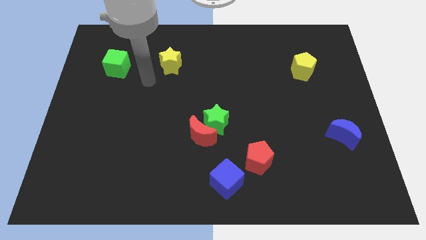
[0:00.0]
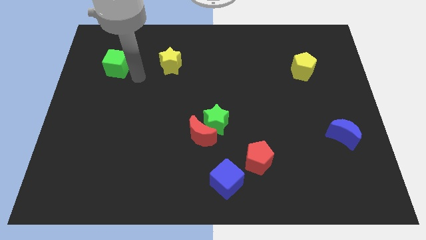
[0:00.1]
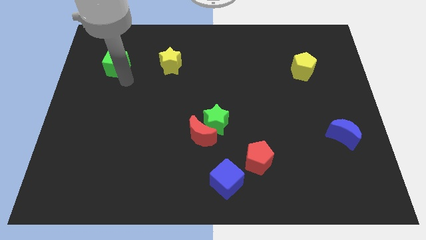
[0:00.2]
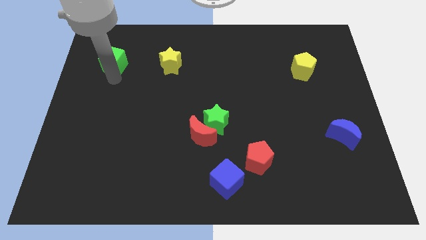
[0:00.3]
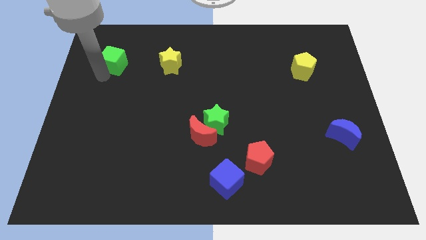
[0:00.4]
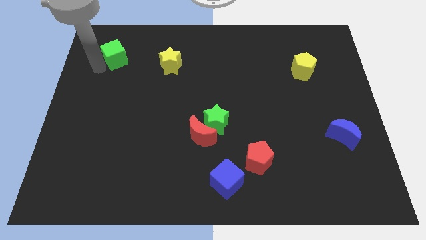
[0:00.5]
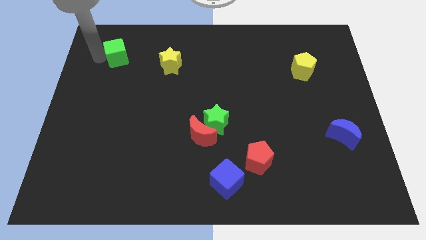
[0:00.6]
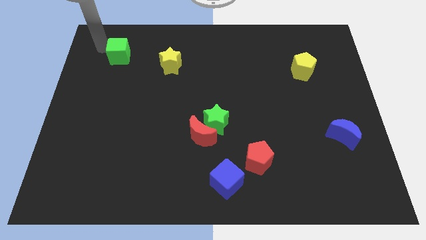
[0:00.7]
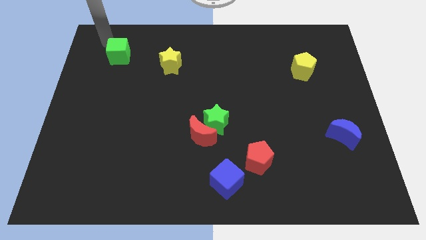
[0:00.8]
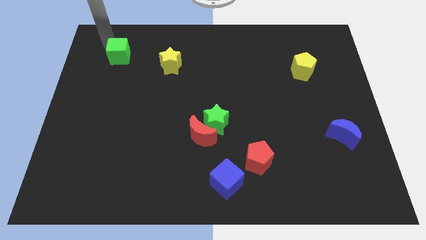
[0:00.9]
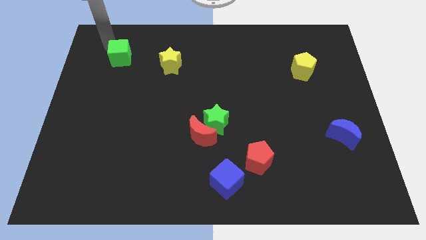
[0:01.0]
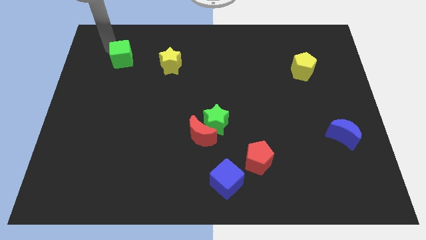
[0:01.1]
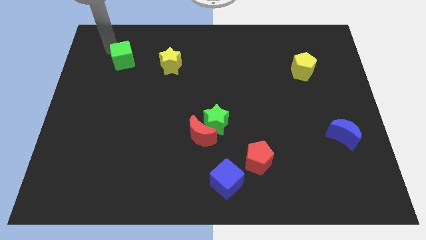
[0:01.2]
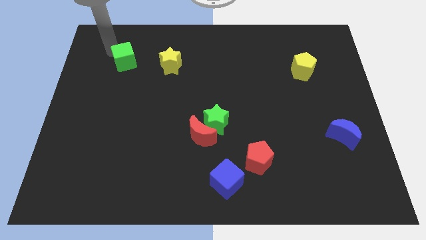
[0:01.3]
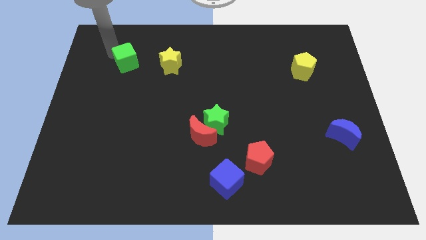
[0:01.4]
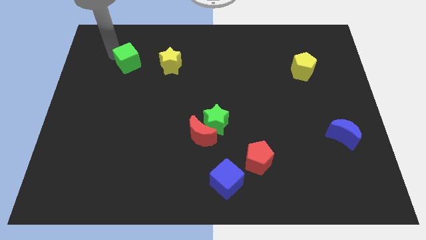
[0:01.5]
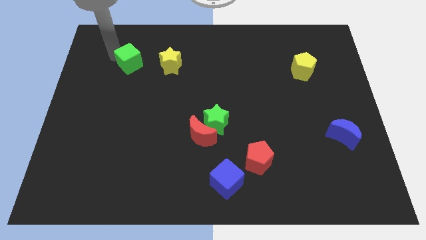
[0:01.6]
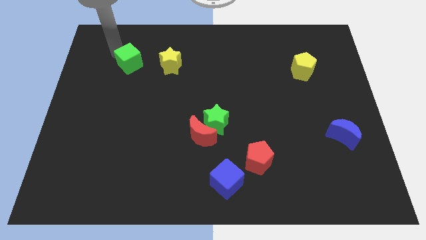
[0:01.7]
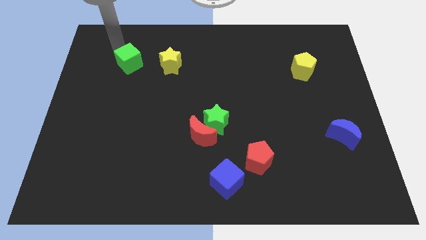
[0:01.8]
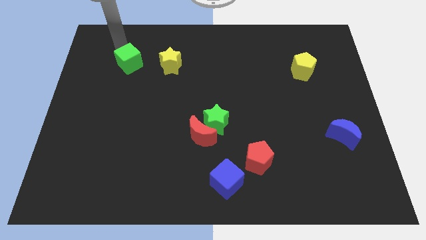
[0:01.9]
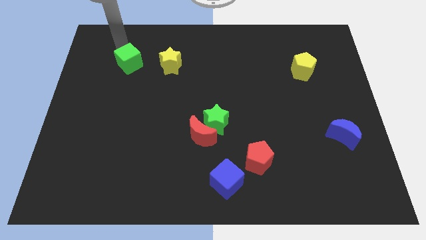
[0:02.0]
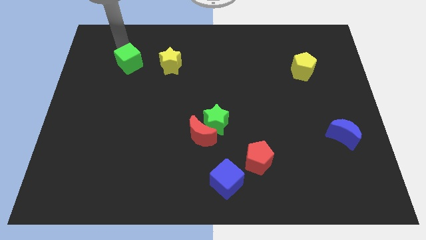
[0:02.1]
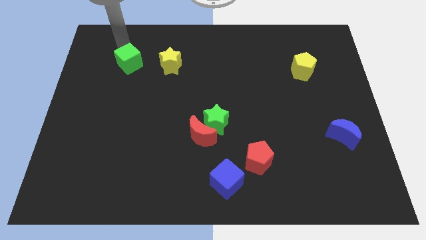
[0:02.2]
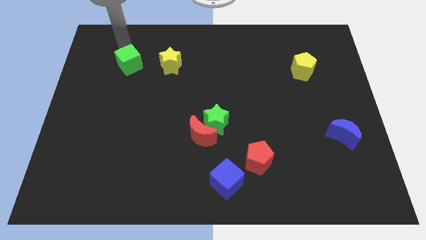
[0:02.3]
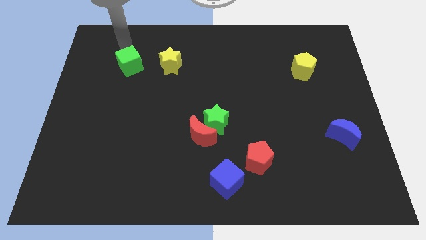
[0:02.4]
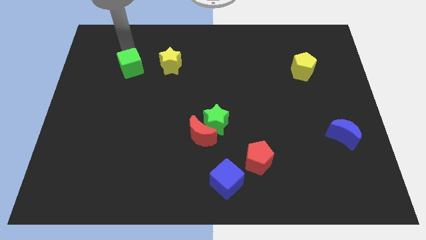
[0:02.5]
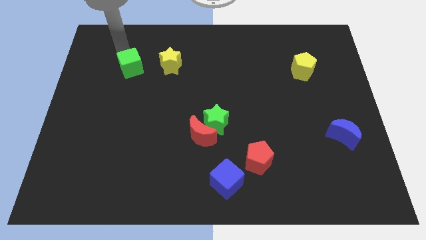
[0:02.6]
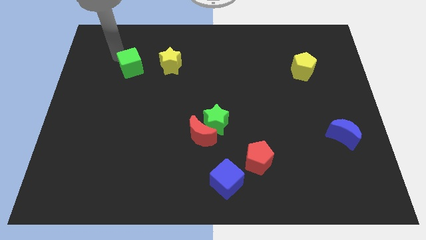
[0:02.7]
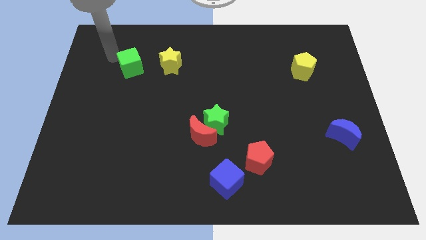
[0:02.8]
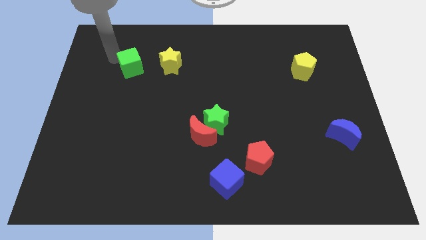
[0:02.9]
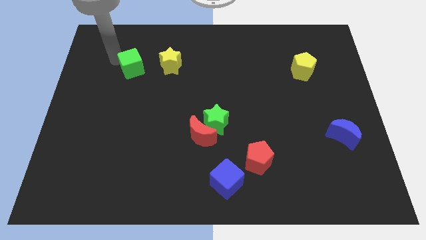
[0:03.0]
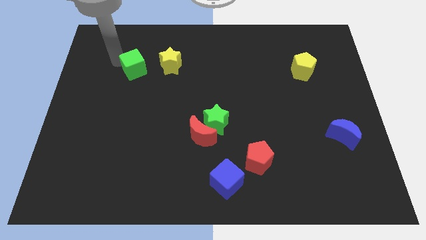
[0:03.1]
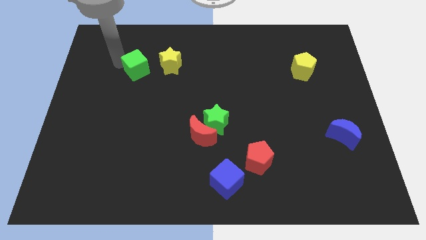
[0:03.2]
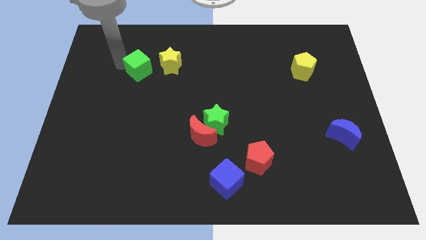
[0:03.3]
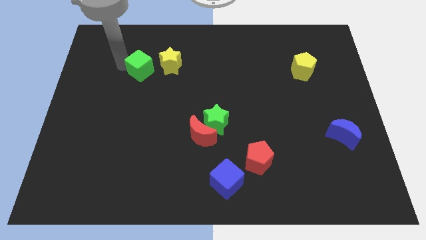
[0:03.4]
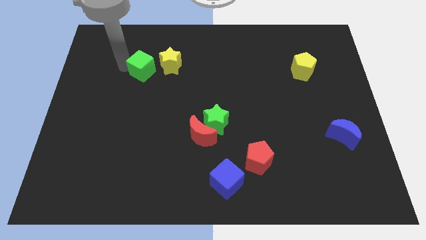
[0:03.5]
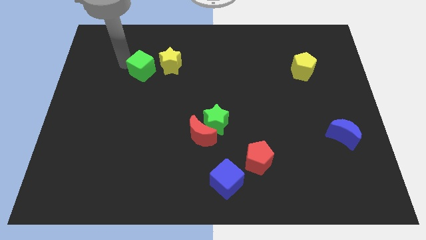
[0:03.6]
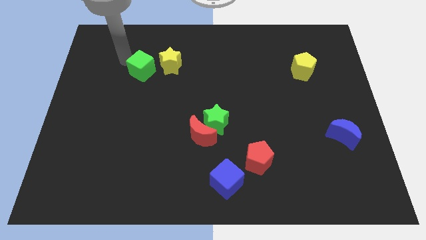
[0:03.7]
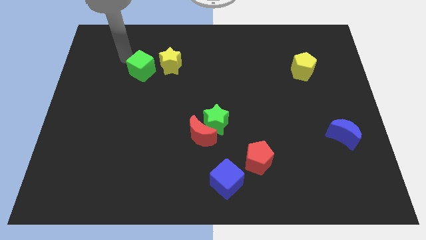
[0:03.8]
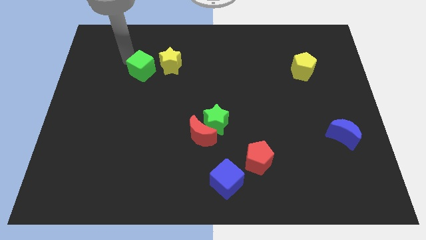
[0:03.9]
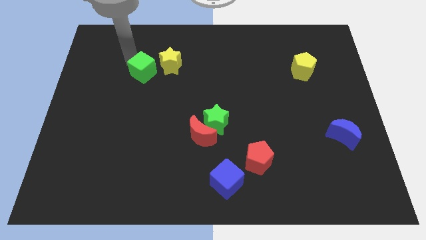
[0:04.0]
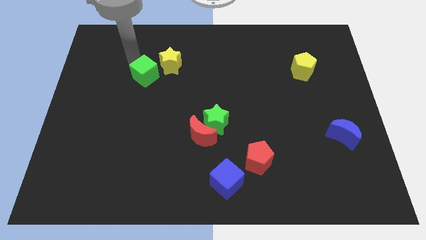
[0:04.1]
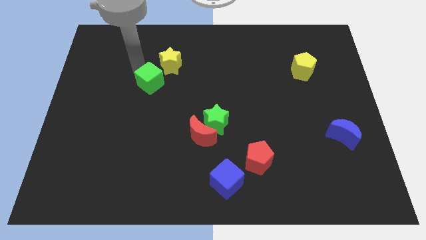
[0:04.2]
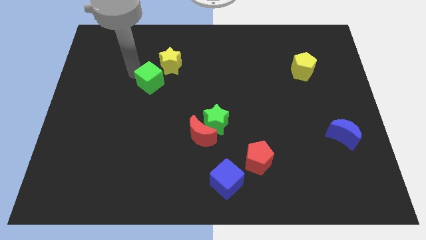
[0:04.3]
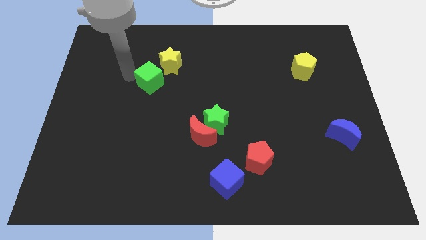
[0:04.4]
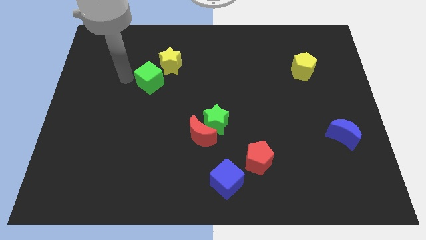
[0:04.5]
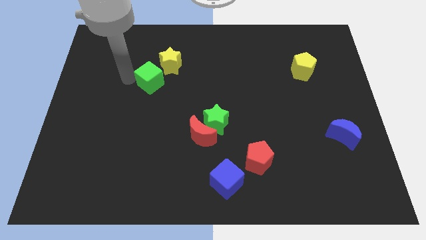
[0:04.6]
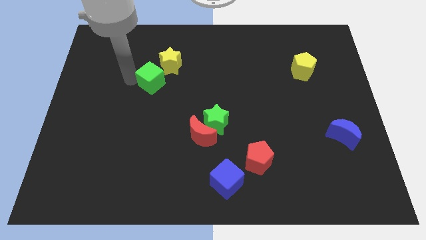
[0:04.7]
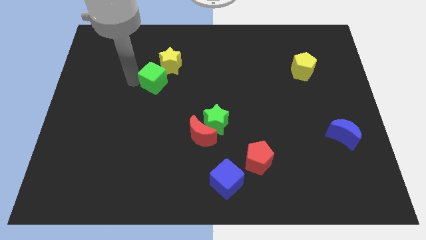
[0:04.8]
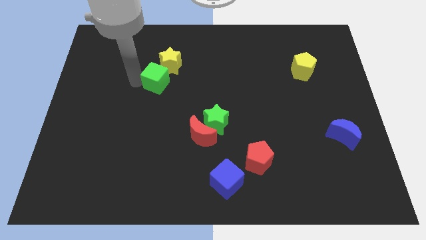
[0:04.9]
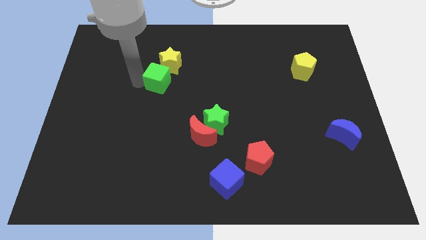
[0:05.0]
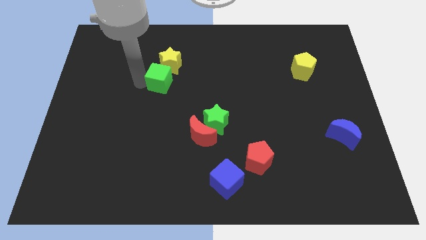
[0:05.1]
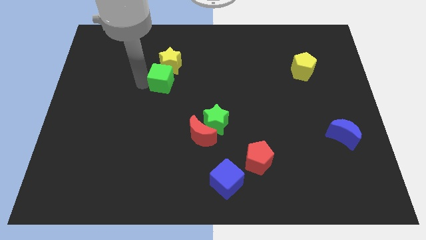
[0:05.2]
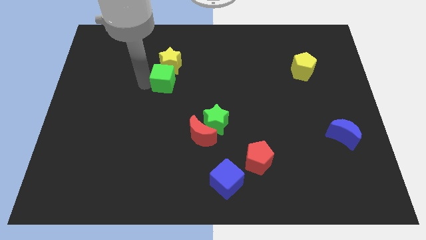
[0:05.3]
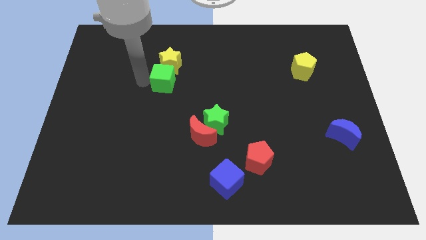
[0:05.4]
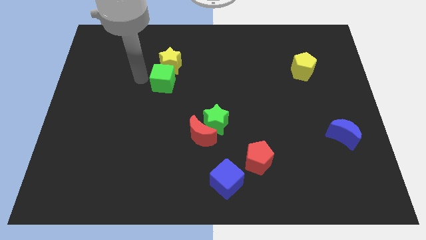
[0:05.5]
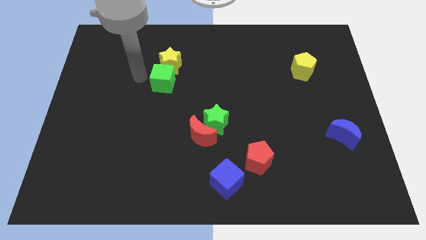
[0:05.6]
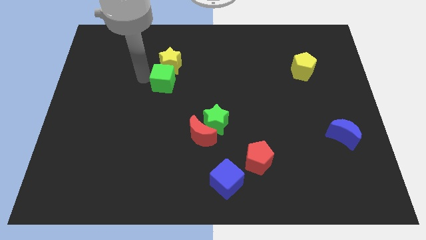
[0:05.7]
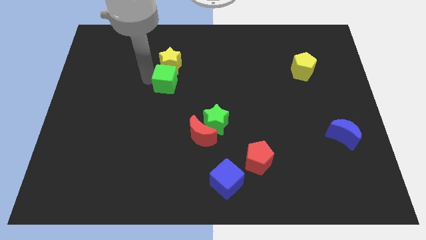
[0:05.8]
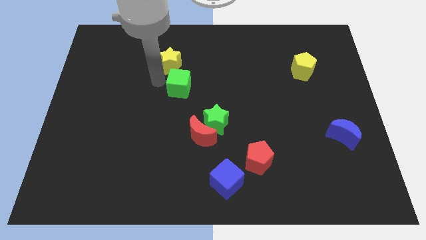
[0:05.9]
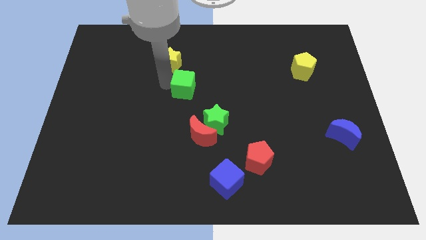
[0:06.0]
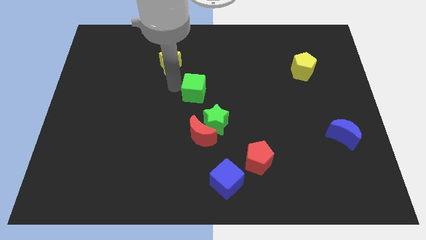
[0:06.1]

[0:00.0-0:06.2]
move the green cube to the top of the green star

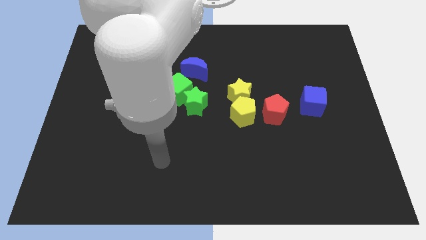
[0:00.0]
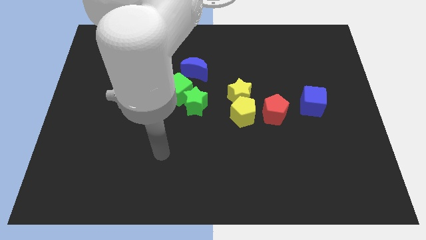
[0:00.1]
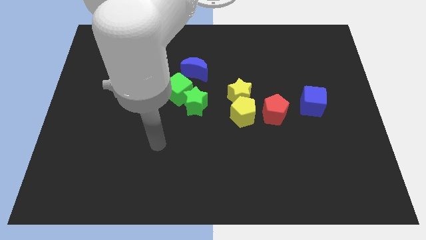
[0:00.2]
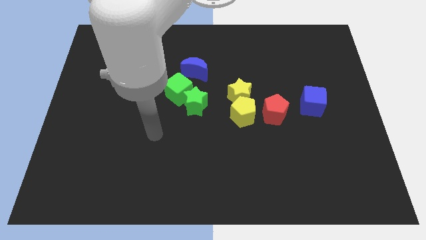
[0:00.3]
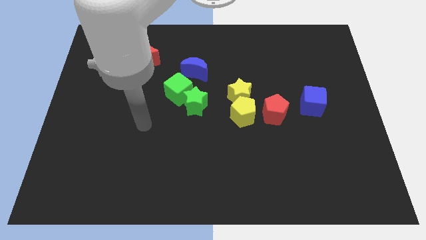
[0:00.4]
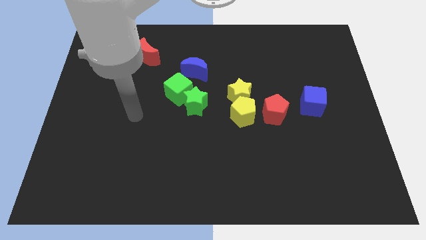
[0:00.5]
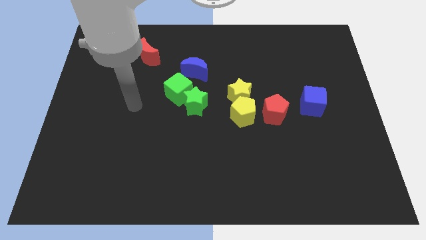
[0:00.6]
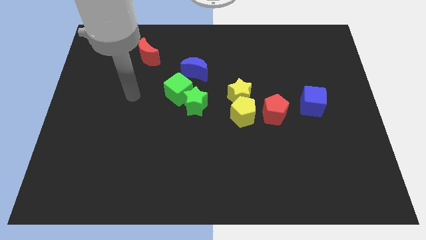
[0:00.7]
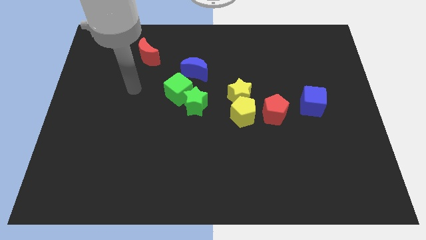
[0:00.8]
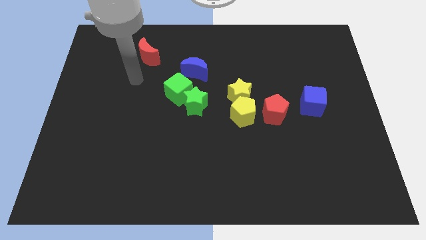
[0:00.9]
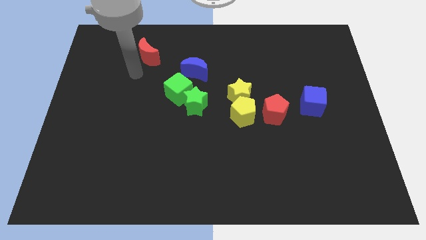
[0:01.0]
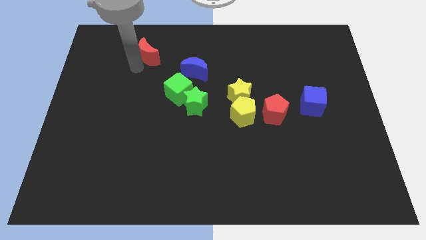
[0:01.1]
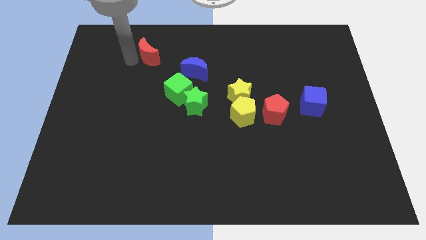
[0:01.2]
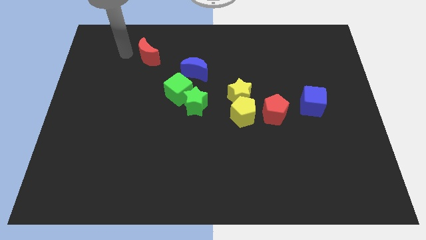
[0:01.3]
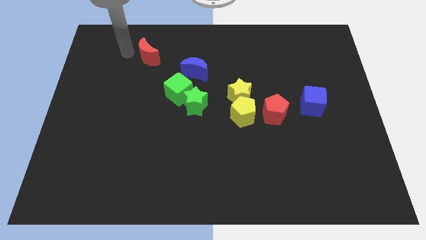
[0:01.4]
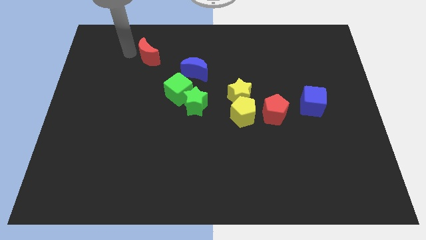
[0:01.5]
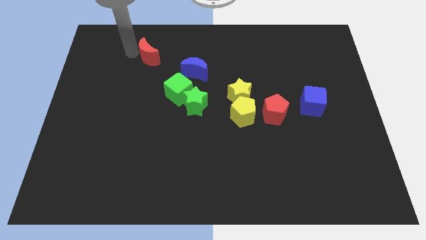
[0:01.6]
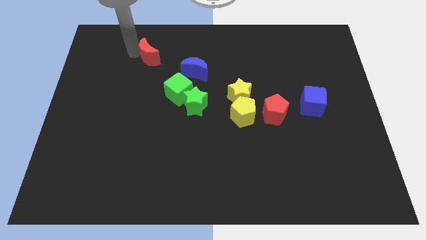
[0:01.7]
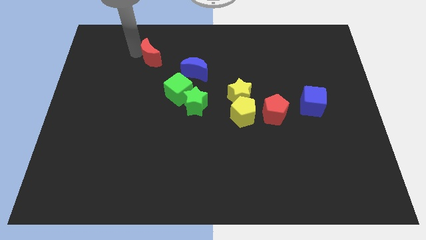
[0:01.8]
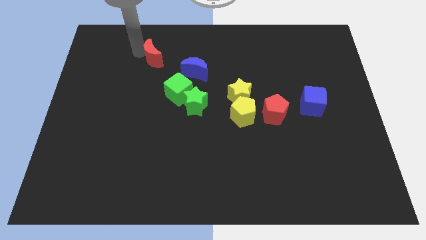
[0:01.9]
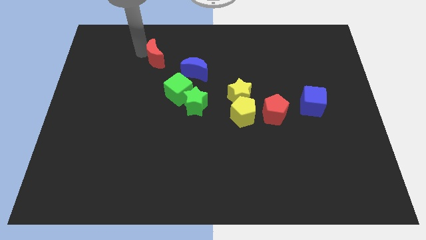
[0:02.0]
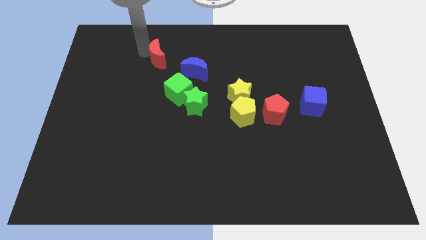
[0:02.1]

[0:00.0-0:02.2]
slide the red moon diagonally up and to the left of the blue moon
